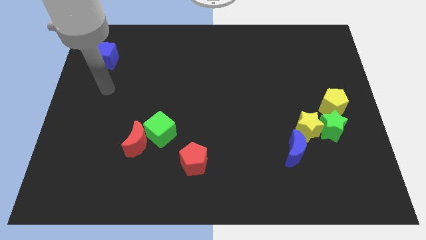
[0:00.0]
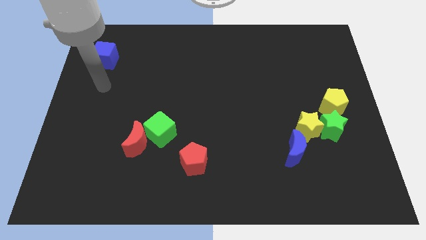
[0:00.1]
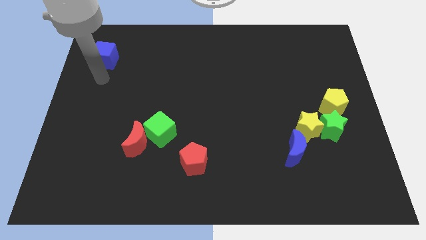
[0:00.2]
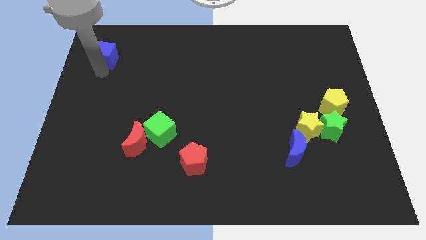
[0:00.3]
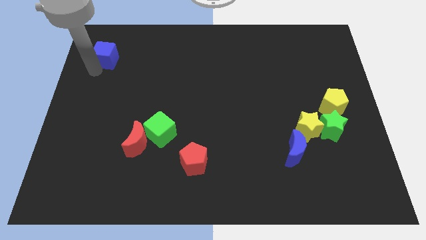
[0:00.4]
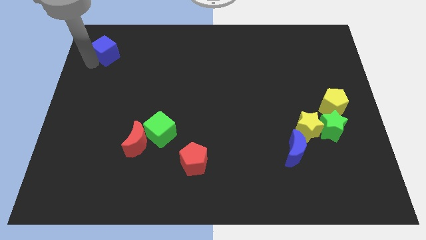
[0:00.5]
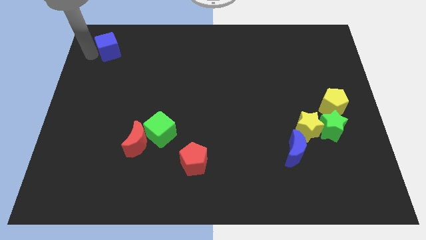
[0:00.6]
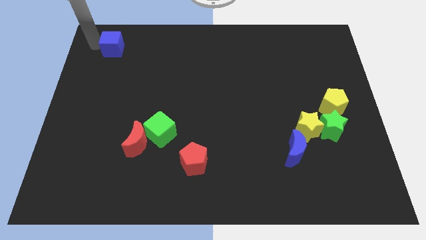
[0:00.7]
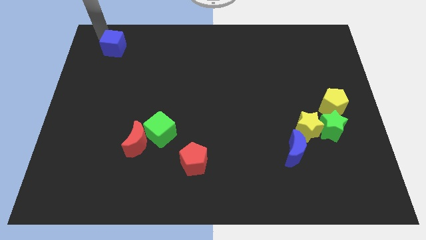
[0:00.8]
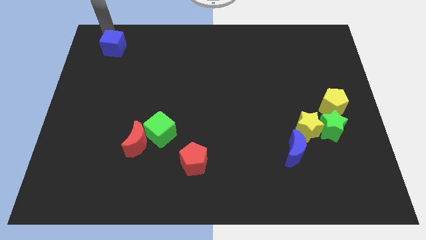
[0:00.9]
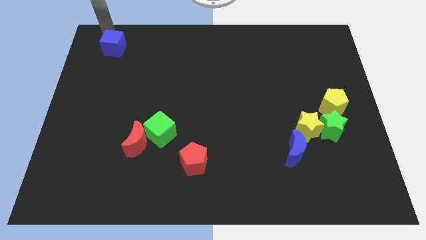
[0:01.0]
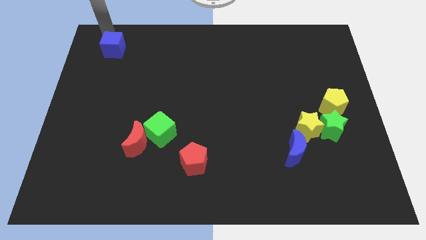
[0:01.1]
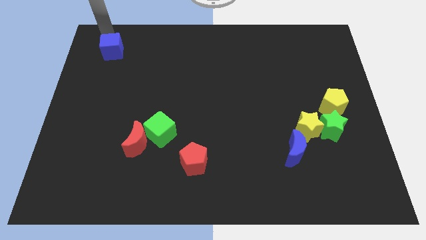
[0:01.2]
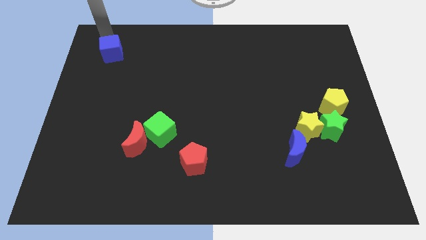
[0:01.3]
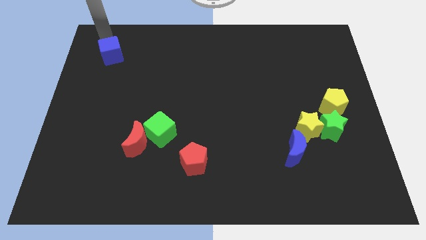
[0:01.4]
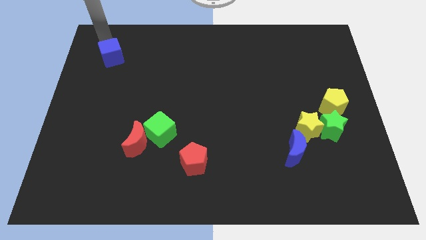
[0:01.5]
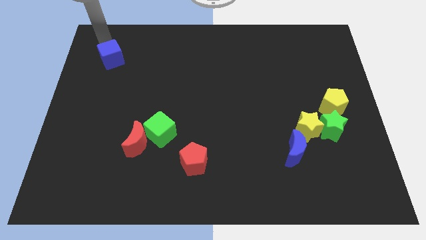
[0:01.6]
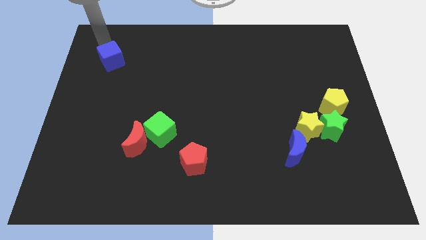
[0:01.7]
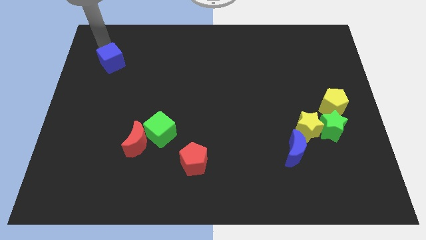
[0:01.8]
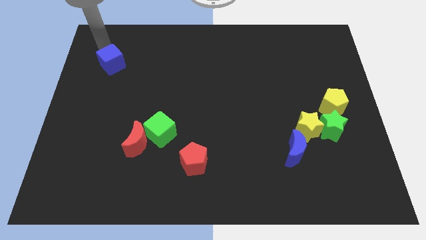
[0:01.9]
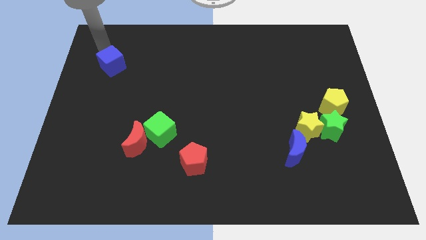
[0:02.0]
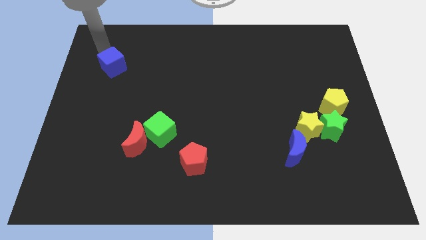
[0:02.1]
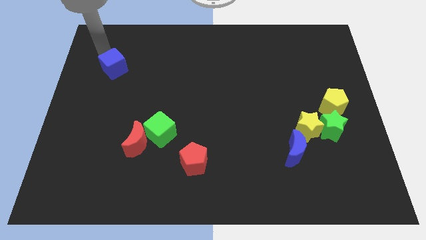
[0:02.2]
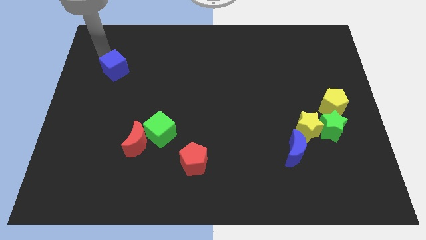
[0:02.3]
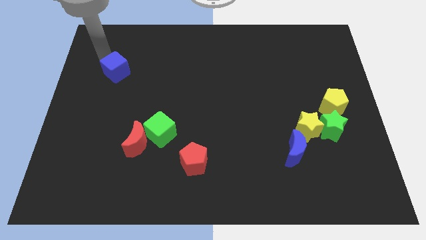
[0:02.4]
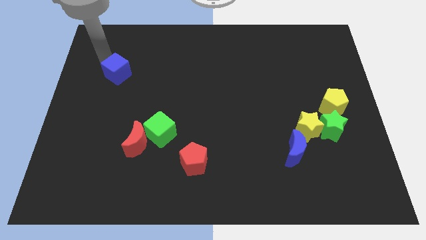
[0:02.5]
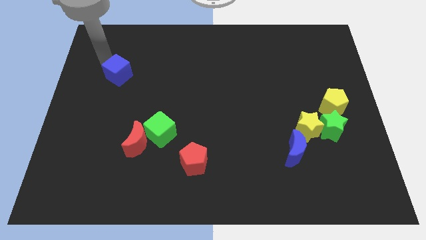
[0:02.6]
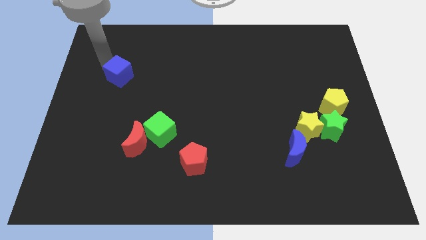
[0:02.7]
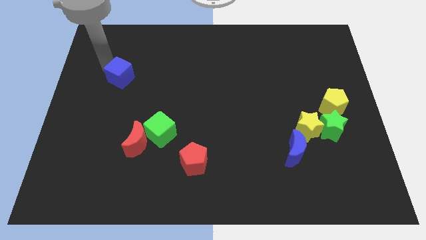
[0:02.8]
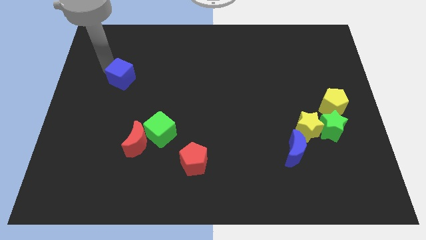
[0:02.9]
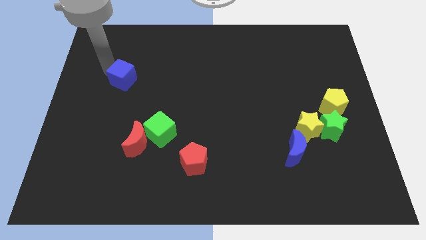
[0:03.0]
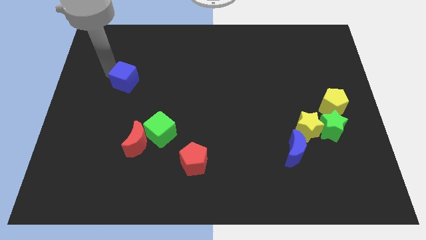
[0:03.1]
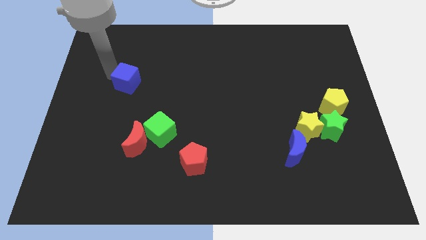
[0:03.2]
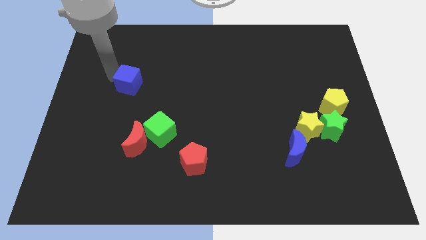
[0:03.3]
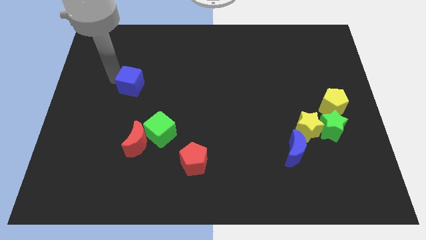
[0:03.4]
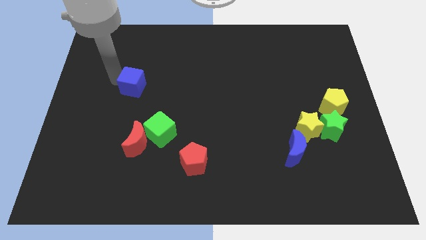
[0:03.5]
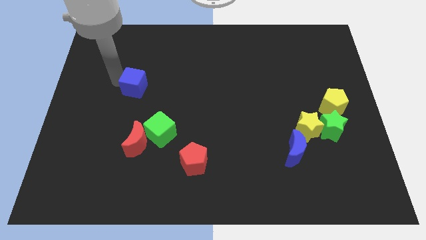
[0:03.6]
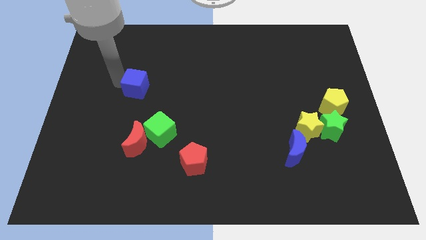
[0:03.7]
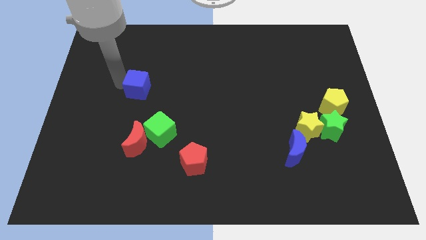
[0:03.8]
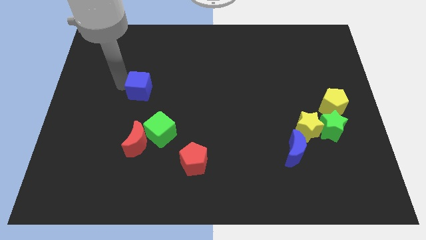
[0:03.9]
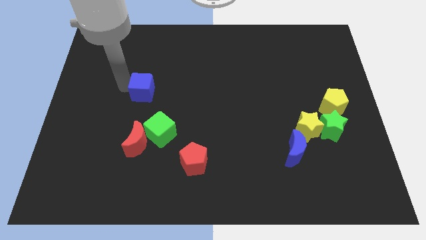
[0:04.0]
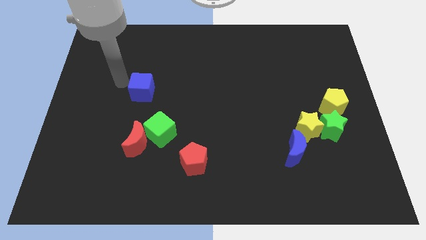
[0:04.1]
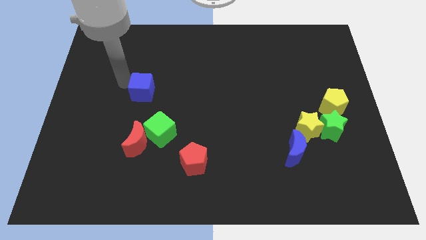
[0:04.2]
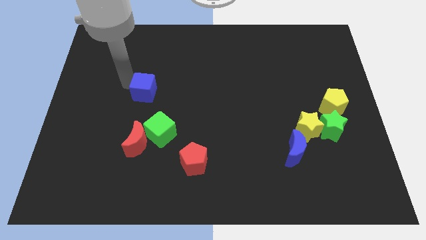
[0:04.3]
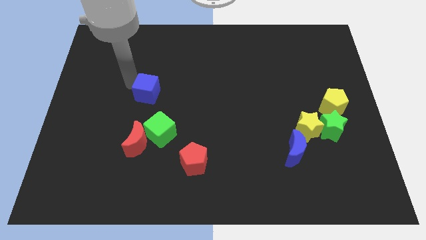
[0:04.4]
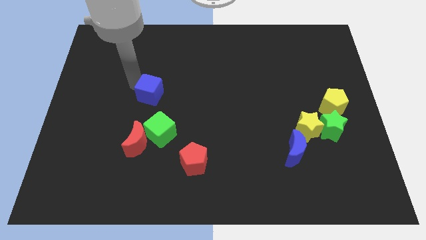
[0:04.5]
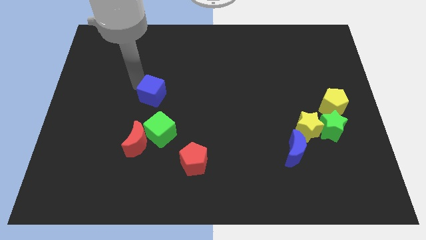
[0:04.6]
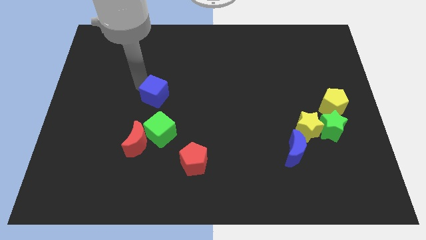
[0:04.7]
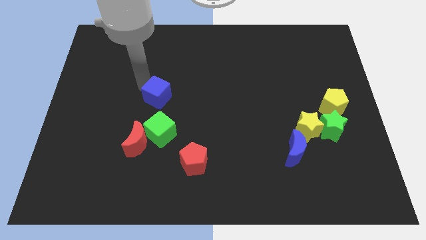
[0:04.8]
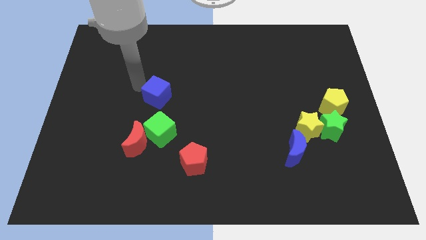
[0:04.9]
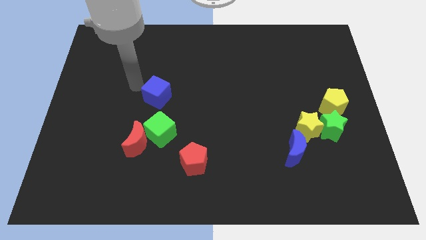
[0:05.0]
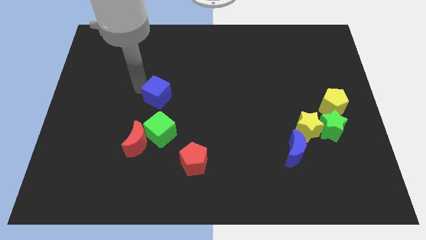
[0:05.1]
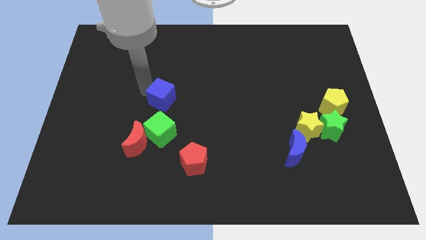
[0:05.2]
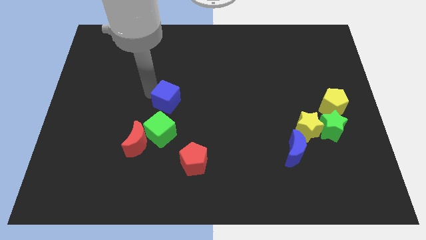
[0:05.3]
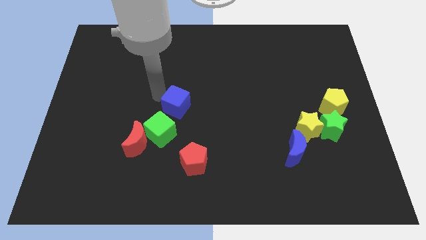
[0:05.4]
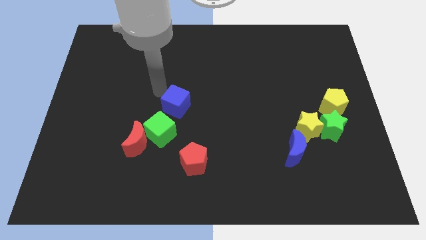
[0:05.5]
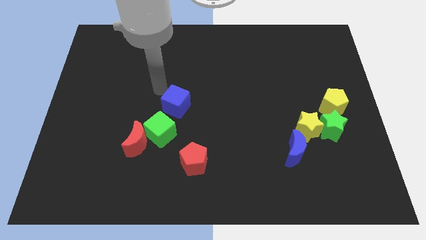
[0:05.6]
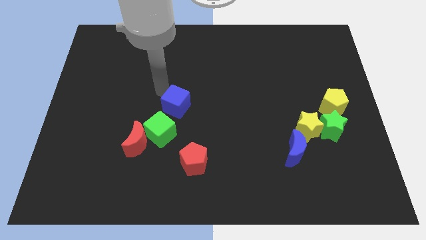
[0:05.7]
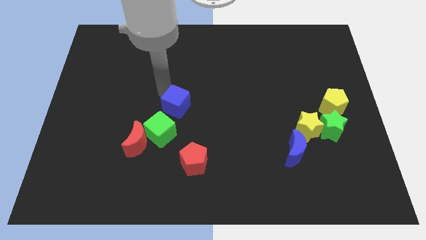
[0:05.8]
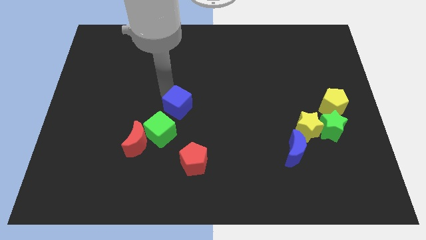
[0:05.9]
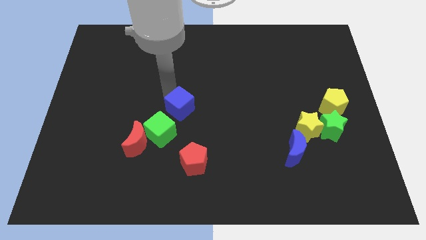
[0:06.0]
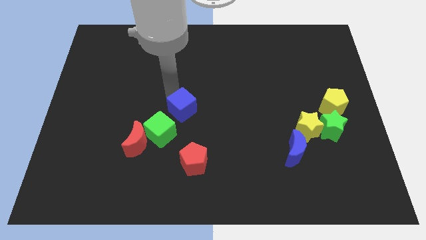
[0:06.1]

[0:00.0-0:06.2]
push the blue cube to the top side of the red pentagon

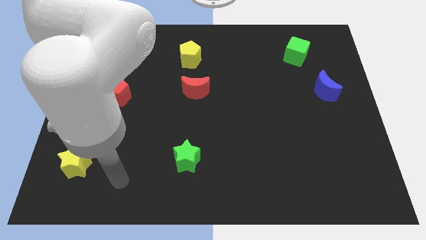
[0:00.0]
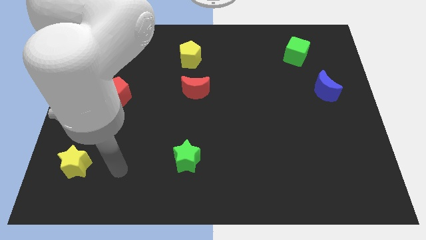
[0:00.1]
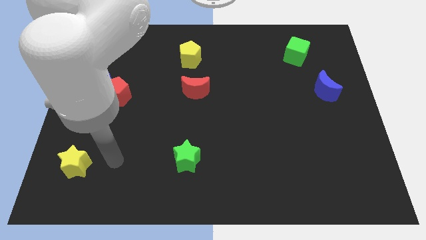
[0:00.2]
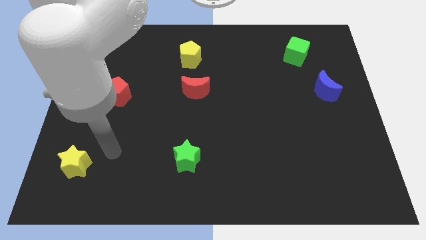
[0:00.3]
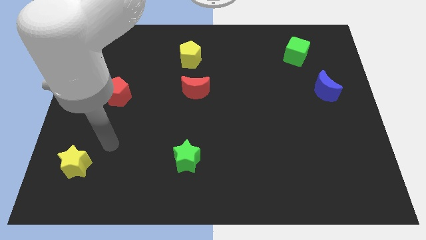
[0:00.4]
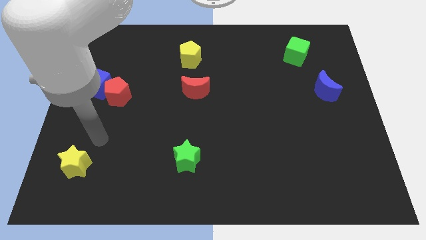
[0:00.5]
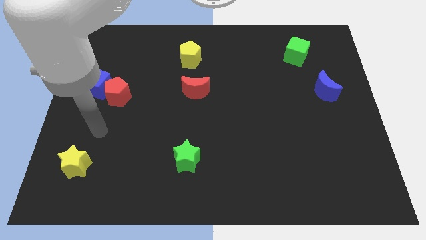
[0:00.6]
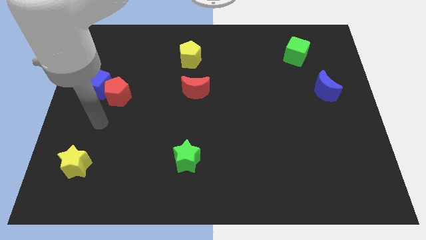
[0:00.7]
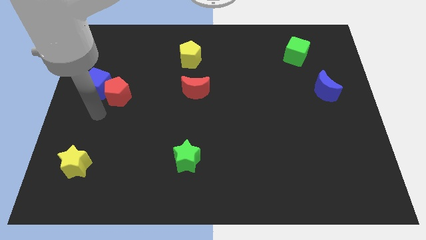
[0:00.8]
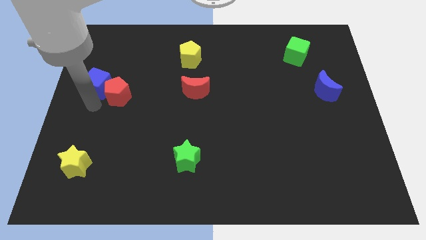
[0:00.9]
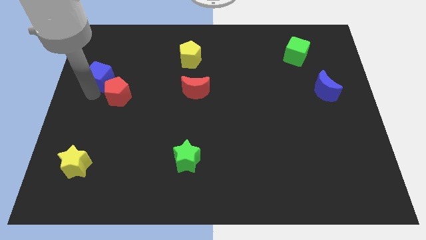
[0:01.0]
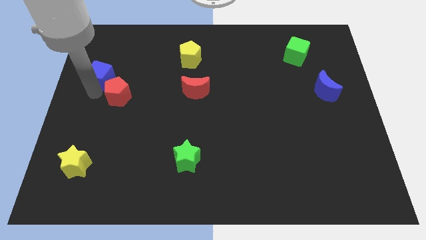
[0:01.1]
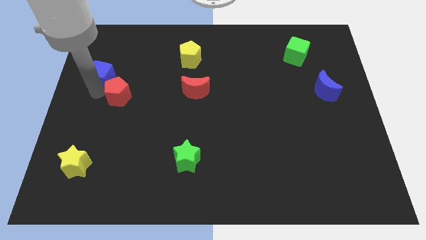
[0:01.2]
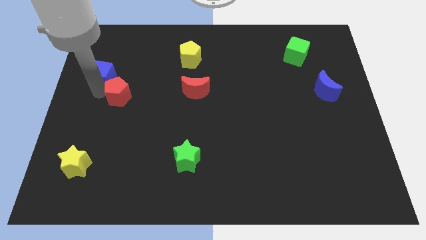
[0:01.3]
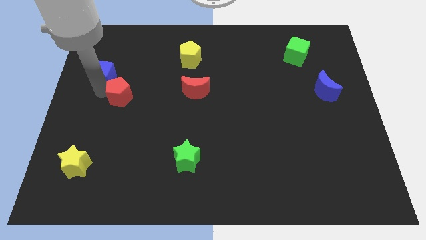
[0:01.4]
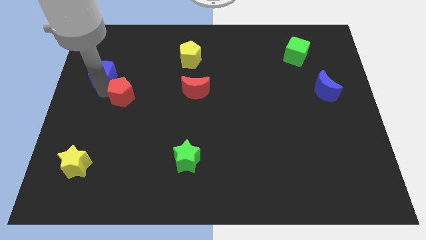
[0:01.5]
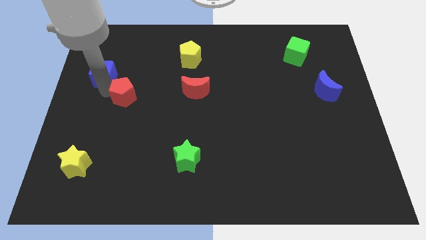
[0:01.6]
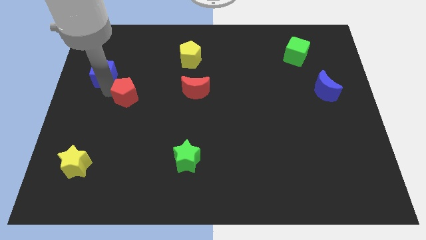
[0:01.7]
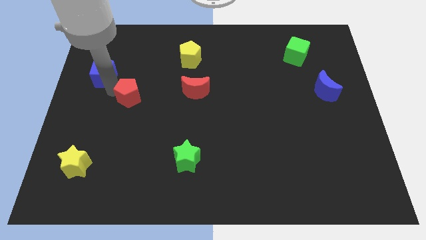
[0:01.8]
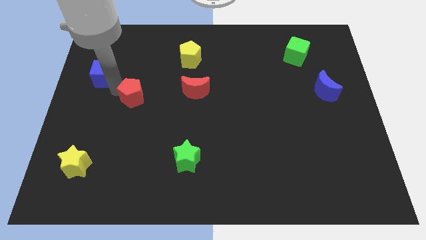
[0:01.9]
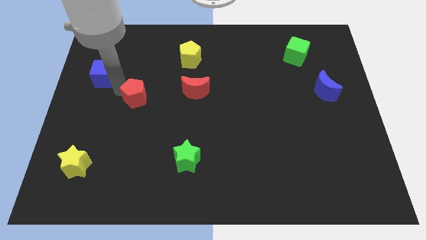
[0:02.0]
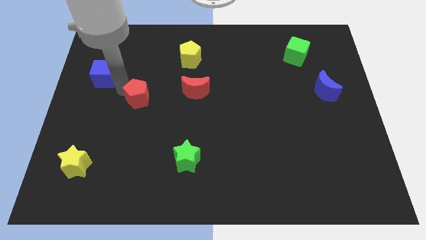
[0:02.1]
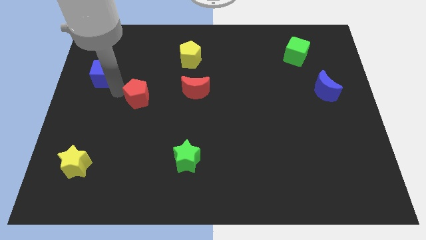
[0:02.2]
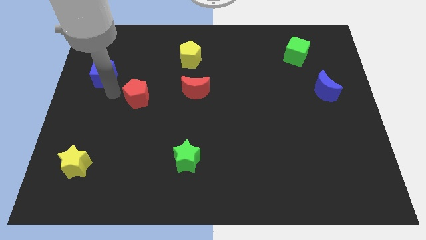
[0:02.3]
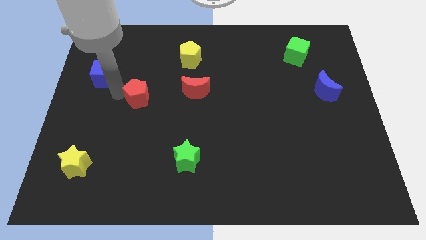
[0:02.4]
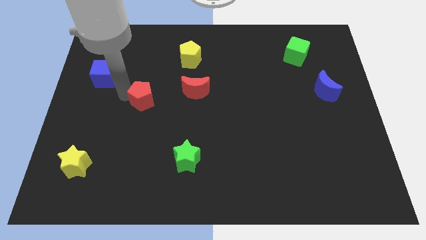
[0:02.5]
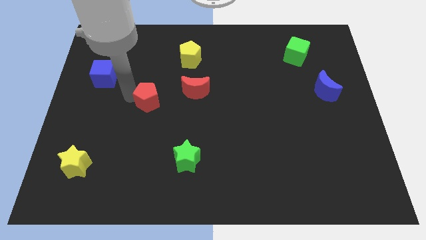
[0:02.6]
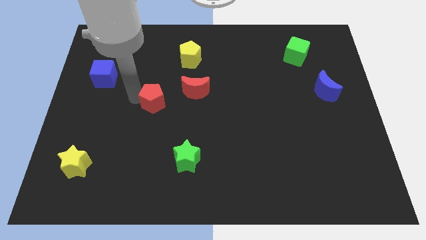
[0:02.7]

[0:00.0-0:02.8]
move the red pentagon to the bottom left of the red moon
